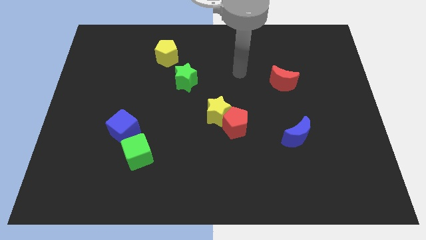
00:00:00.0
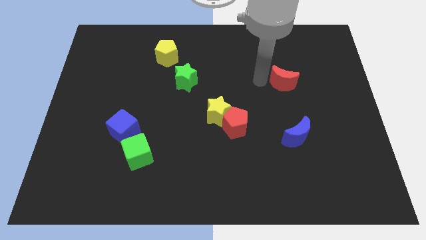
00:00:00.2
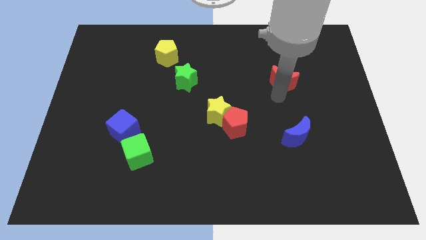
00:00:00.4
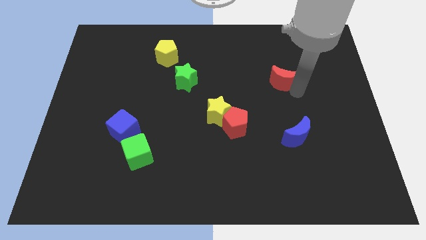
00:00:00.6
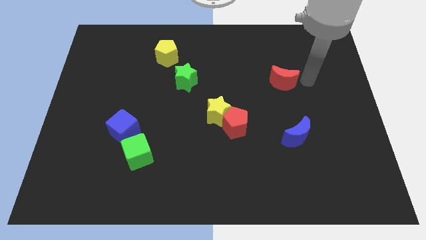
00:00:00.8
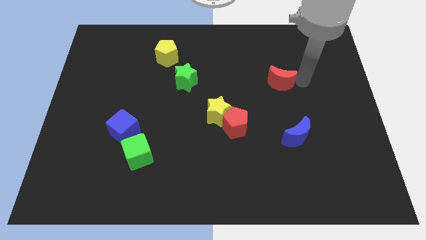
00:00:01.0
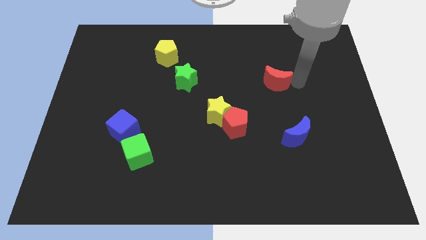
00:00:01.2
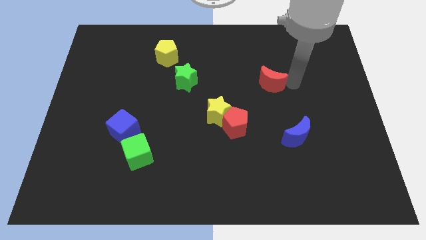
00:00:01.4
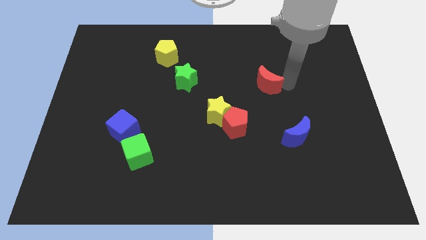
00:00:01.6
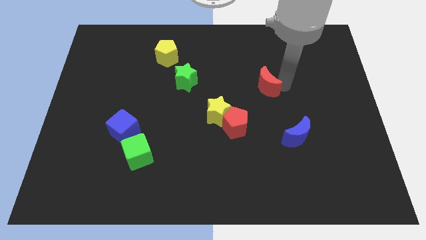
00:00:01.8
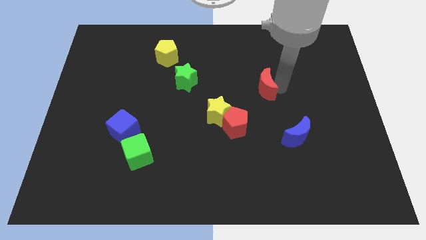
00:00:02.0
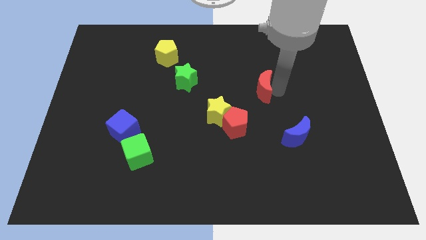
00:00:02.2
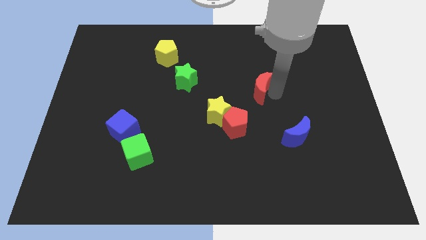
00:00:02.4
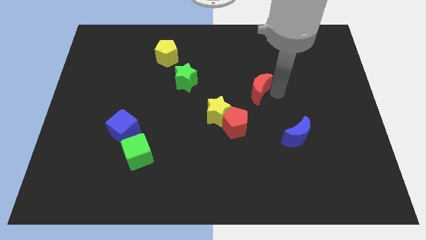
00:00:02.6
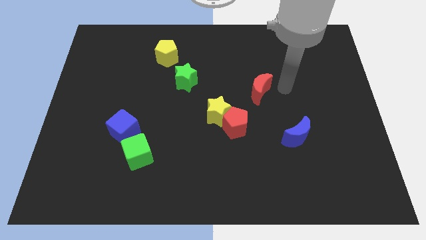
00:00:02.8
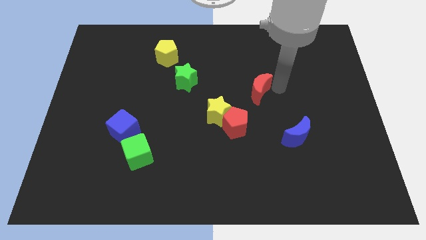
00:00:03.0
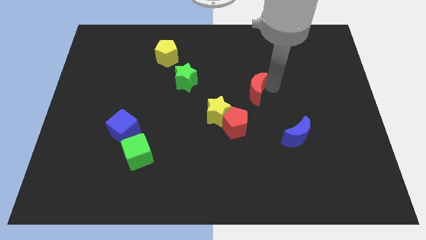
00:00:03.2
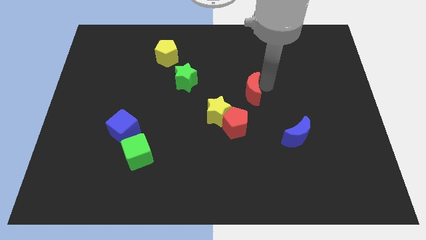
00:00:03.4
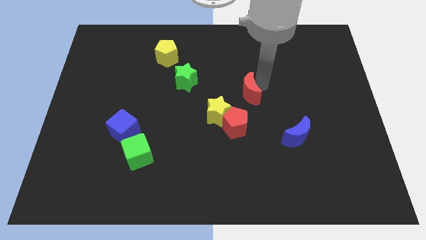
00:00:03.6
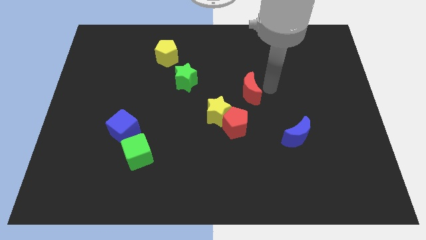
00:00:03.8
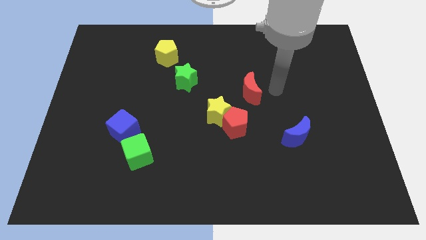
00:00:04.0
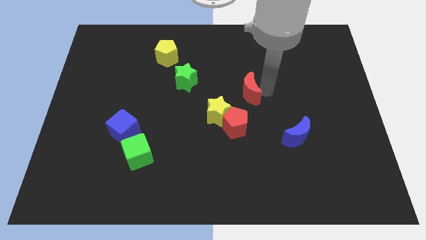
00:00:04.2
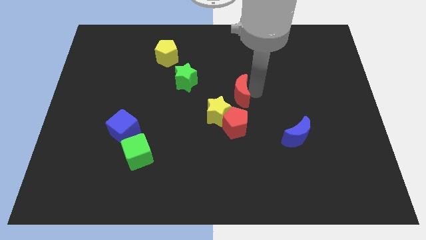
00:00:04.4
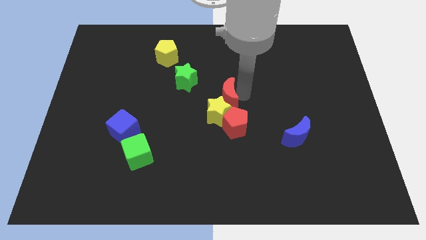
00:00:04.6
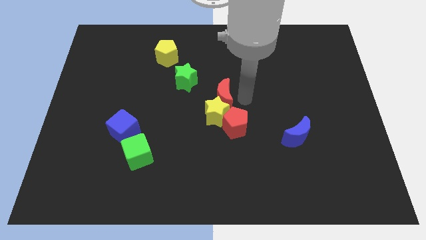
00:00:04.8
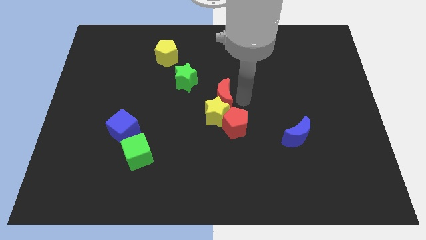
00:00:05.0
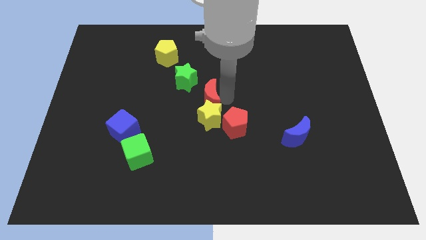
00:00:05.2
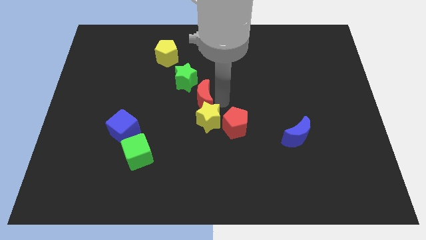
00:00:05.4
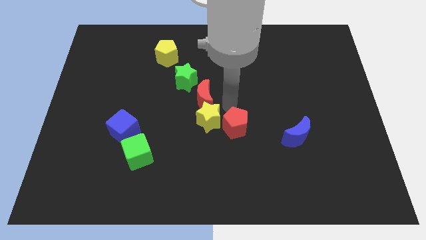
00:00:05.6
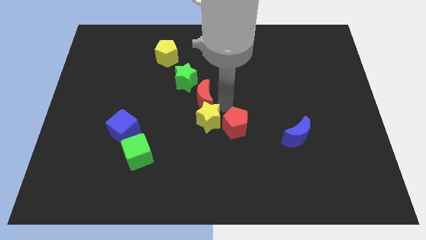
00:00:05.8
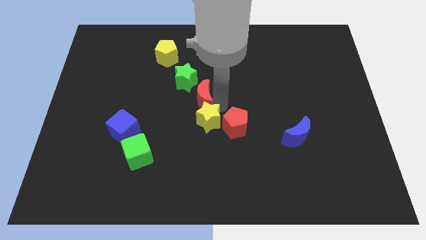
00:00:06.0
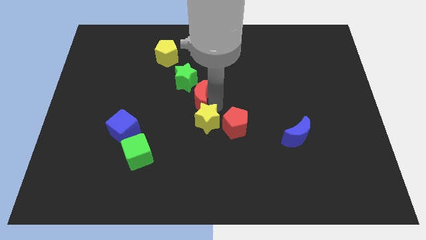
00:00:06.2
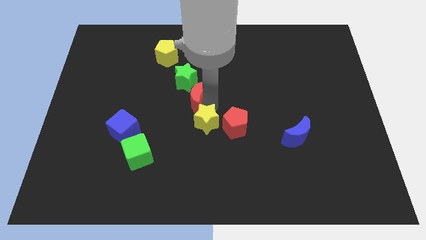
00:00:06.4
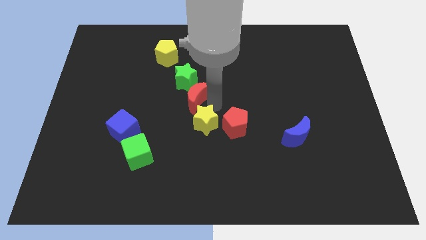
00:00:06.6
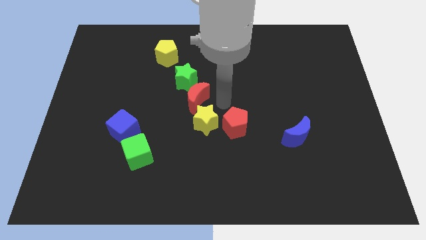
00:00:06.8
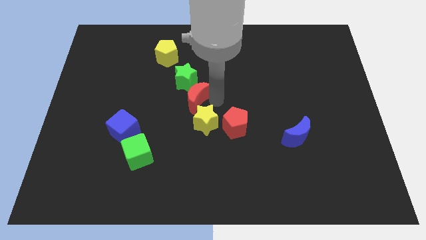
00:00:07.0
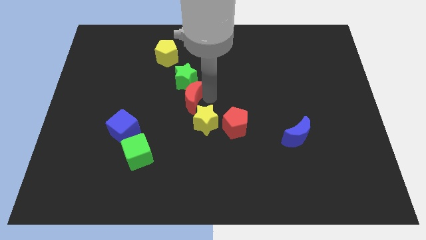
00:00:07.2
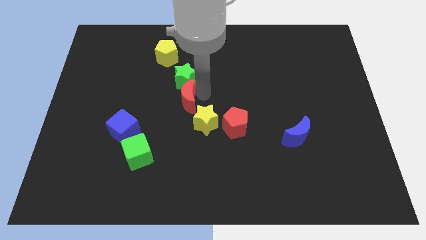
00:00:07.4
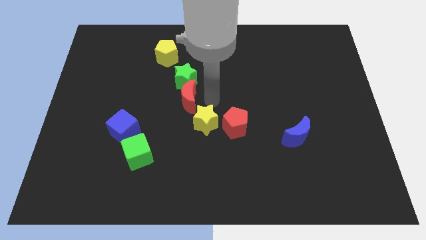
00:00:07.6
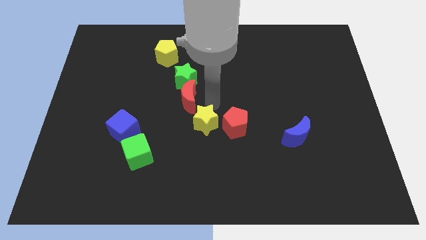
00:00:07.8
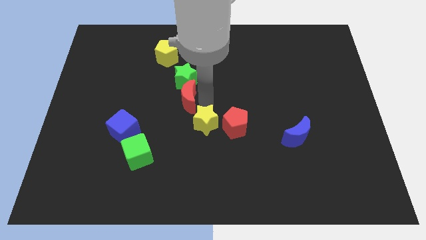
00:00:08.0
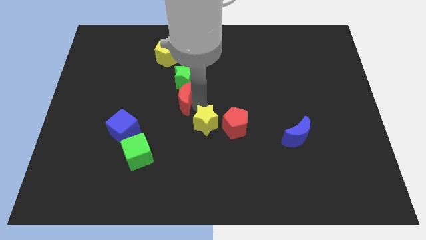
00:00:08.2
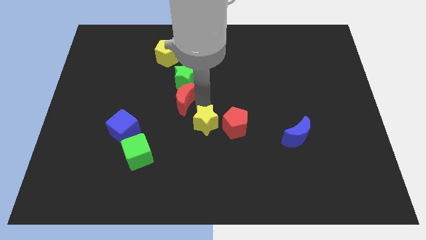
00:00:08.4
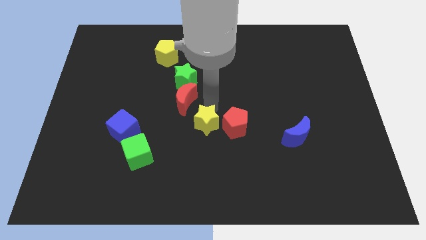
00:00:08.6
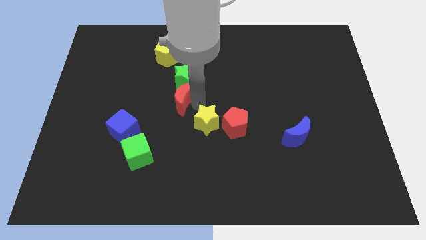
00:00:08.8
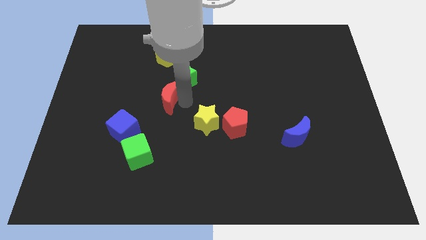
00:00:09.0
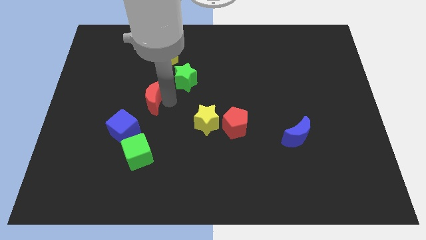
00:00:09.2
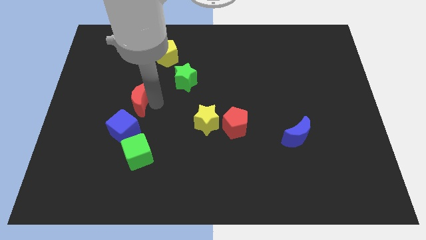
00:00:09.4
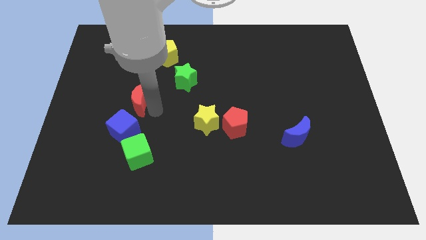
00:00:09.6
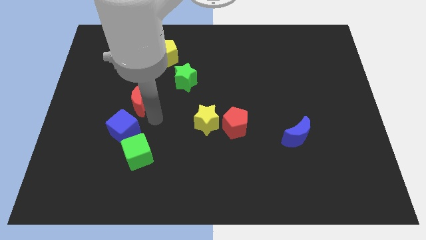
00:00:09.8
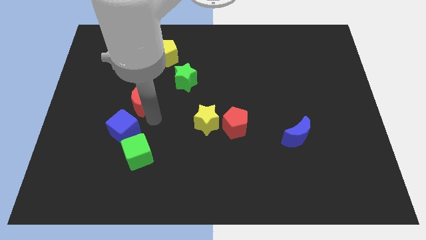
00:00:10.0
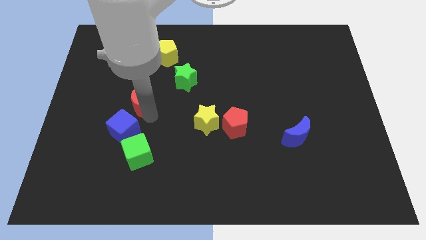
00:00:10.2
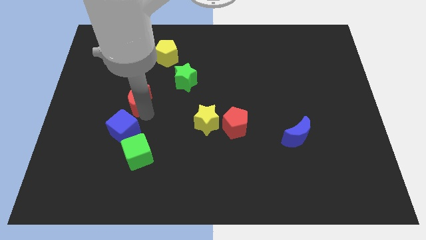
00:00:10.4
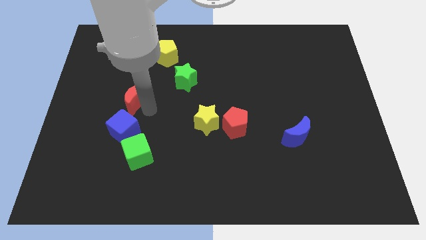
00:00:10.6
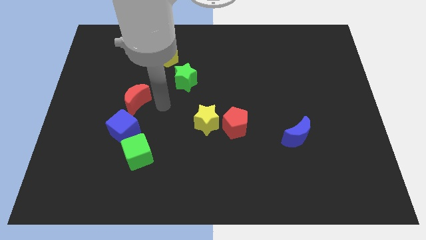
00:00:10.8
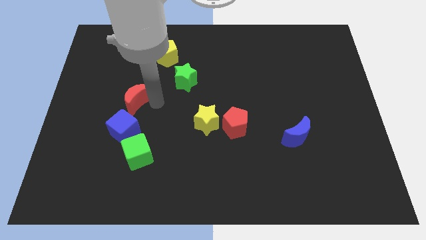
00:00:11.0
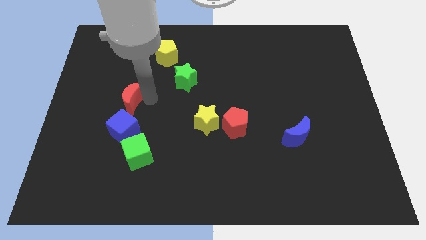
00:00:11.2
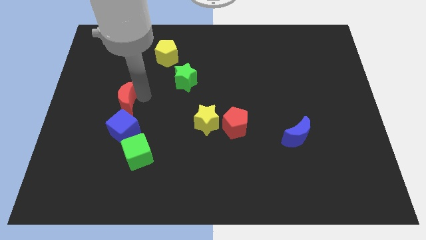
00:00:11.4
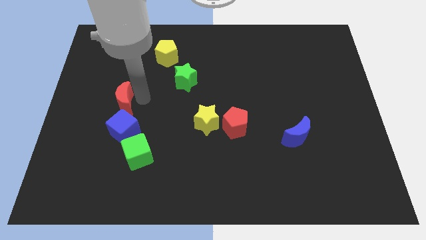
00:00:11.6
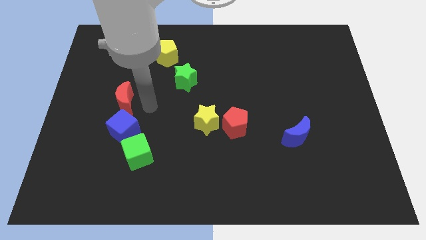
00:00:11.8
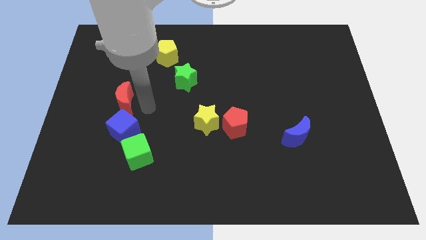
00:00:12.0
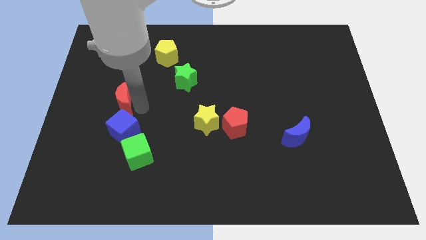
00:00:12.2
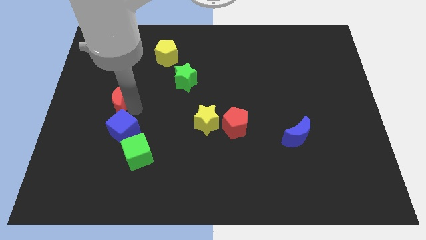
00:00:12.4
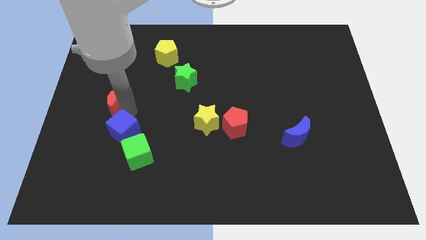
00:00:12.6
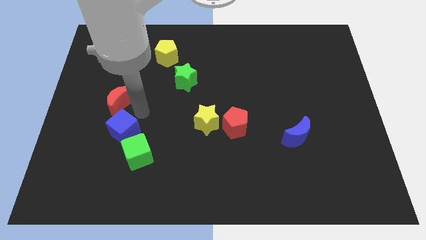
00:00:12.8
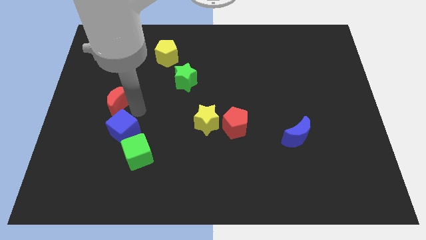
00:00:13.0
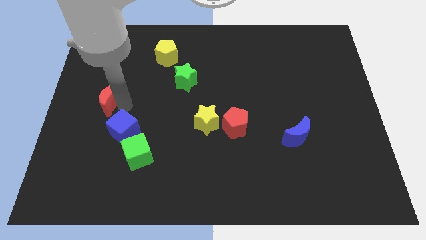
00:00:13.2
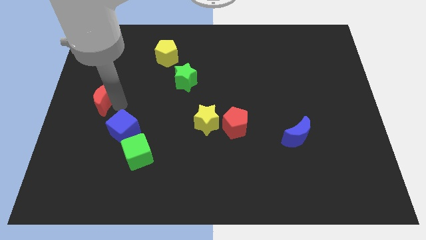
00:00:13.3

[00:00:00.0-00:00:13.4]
push the red moon to the center left
